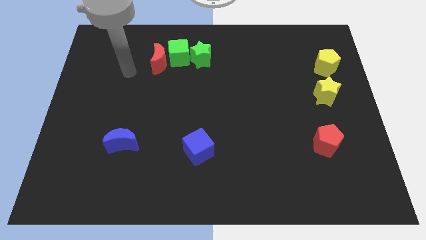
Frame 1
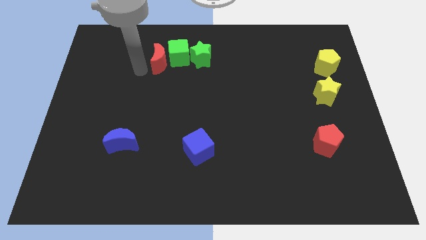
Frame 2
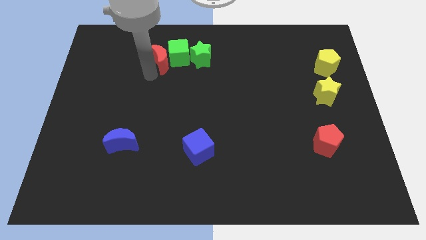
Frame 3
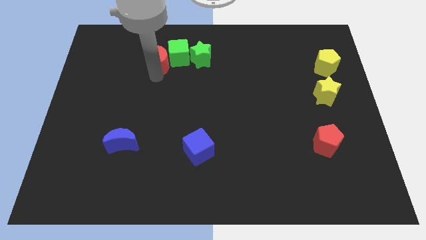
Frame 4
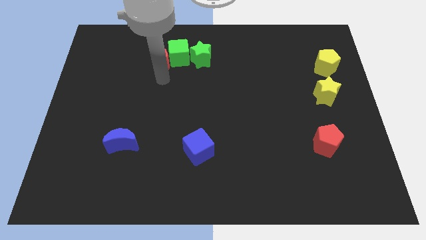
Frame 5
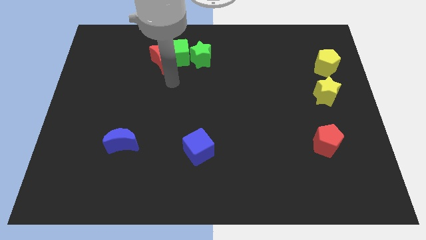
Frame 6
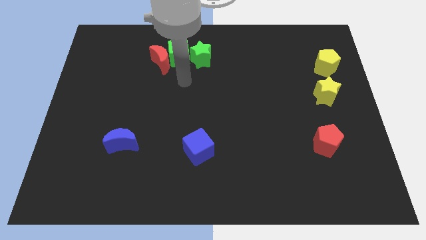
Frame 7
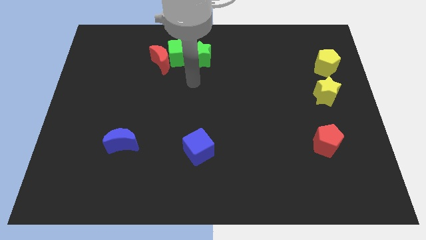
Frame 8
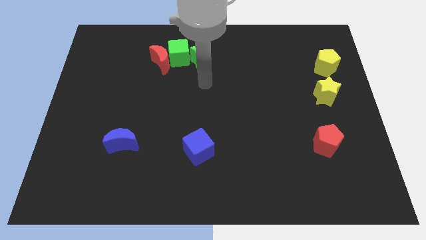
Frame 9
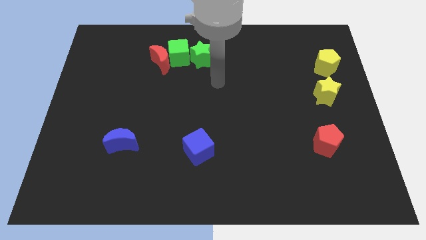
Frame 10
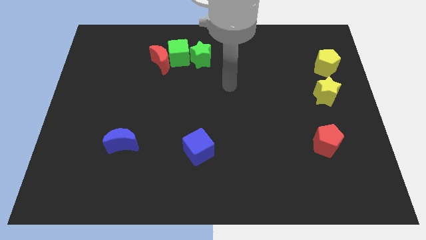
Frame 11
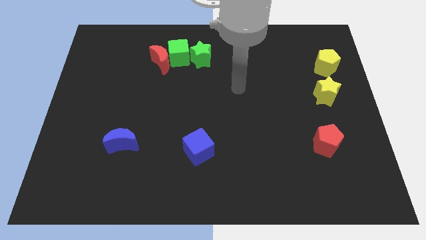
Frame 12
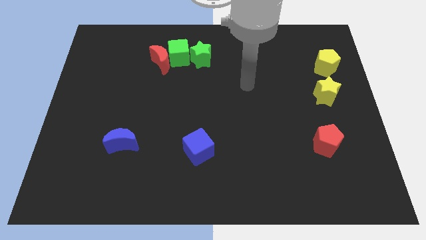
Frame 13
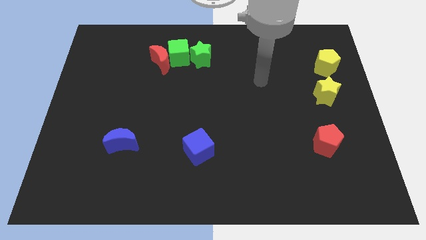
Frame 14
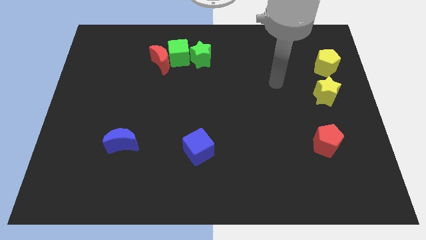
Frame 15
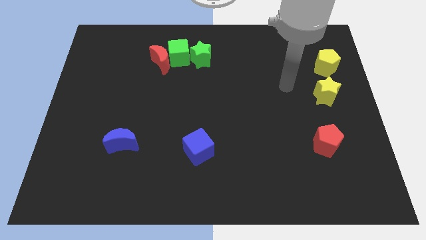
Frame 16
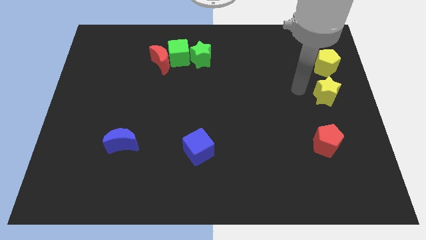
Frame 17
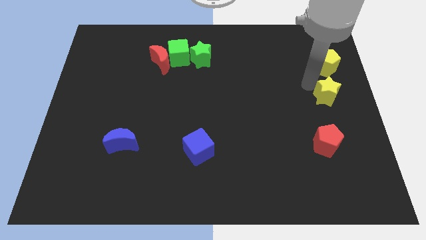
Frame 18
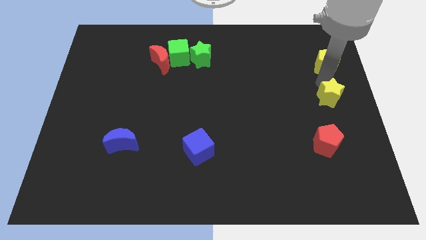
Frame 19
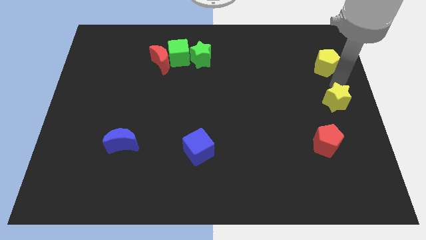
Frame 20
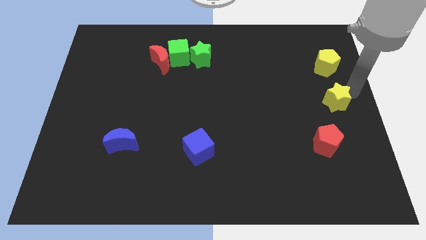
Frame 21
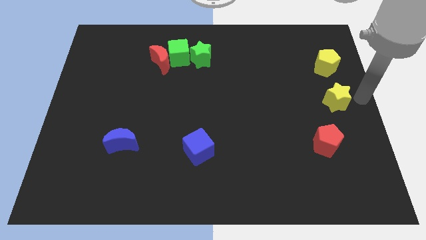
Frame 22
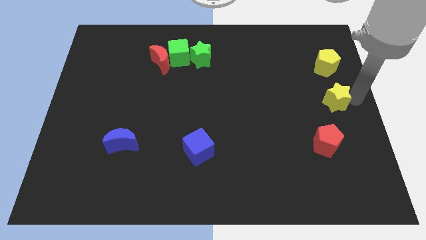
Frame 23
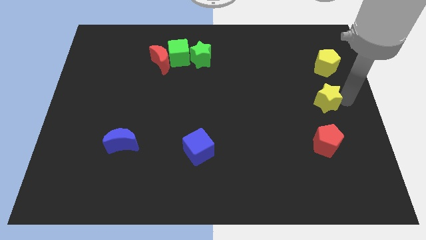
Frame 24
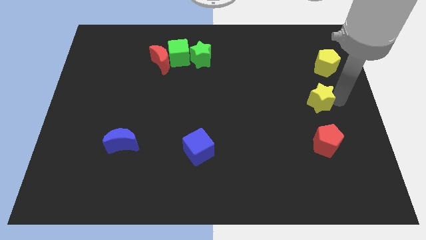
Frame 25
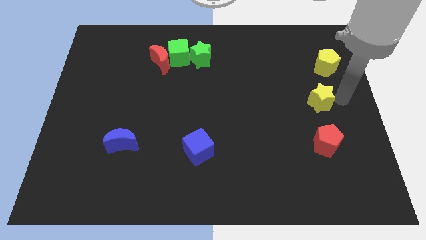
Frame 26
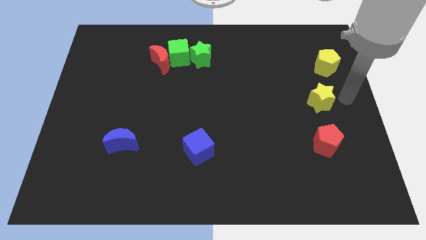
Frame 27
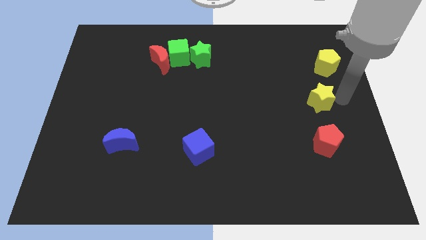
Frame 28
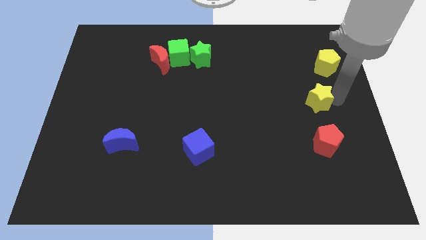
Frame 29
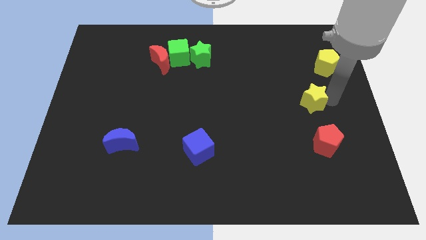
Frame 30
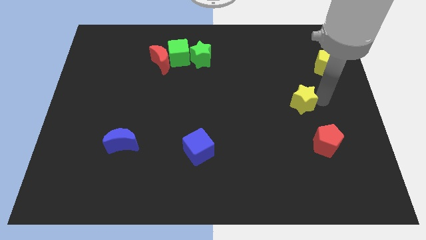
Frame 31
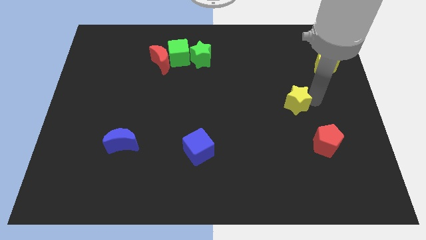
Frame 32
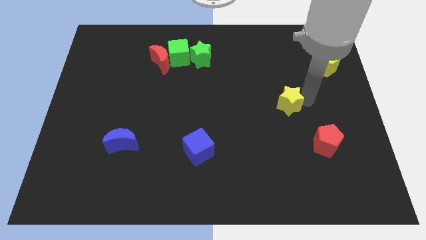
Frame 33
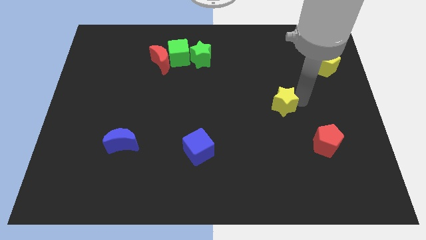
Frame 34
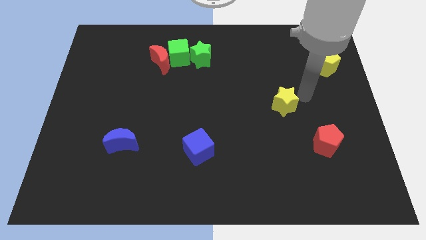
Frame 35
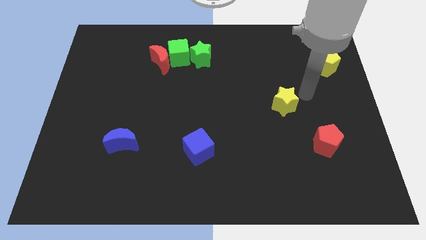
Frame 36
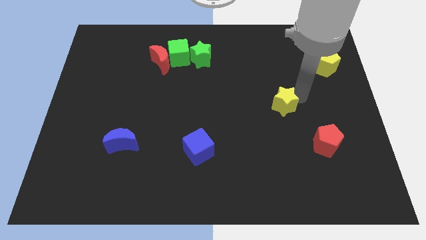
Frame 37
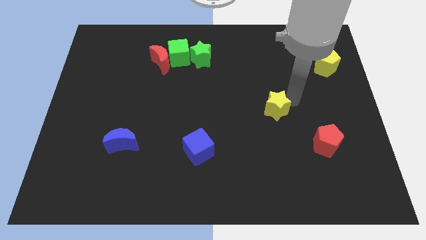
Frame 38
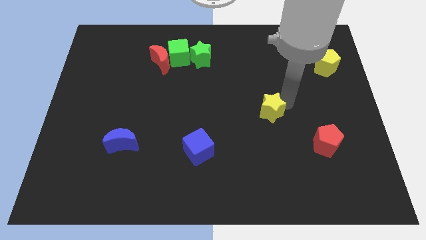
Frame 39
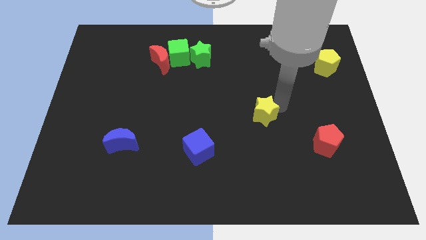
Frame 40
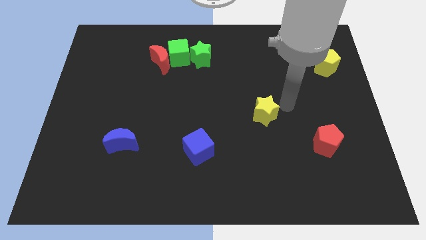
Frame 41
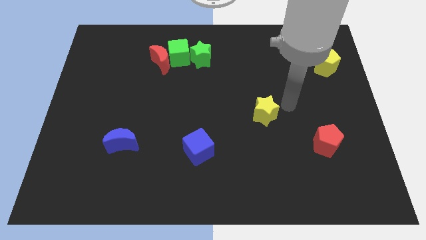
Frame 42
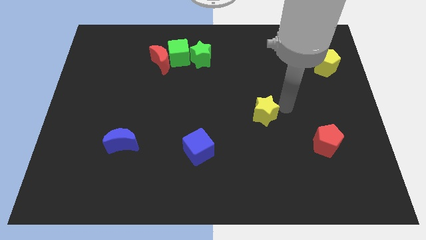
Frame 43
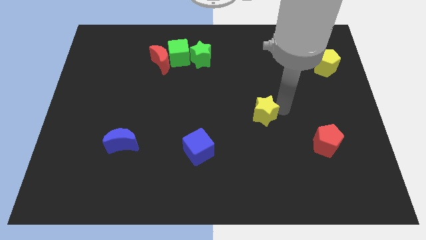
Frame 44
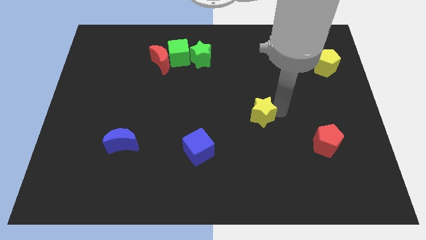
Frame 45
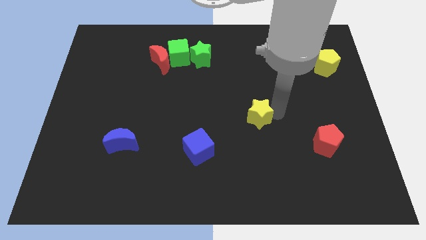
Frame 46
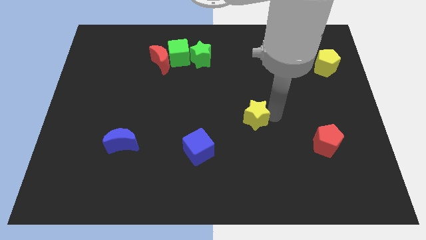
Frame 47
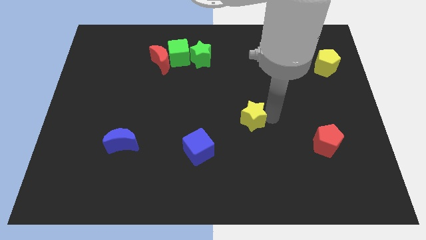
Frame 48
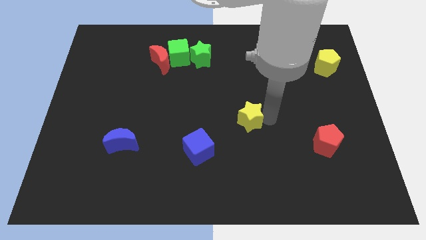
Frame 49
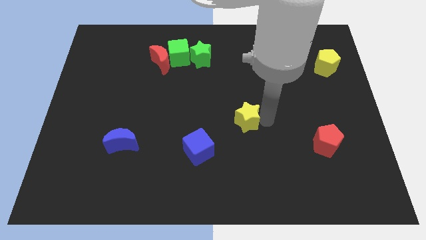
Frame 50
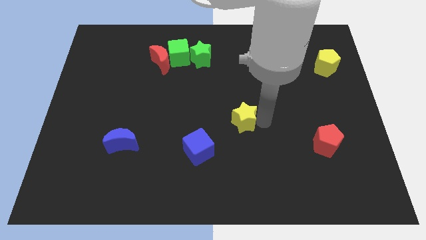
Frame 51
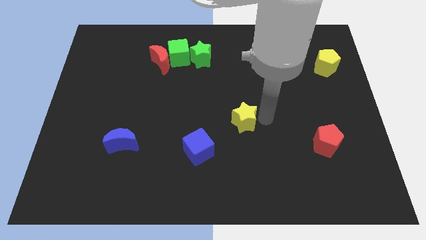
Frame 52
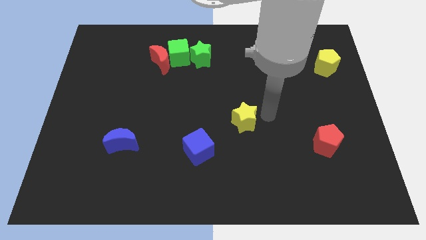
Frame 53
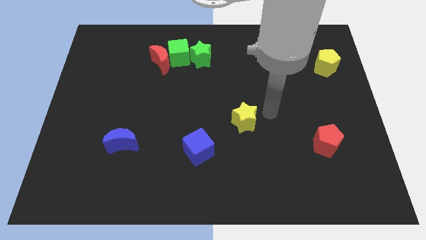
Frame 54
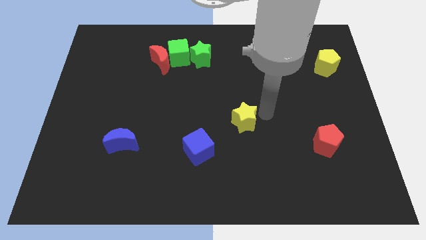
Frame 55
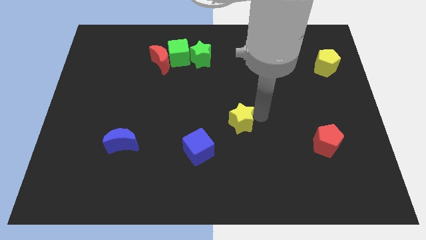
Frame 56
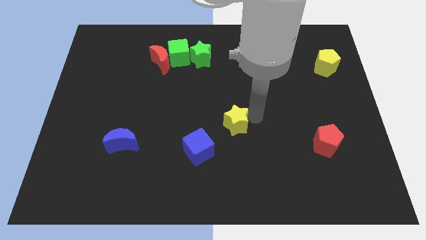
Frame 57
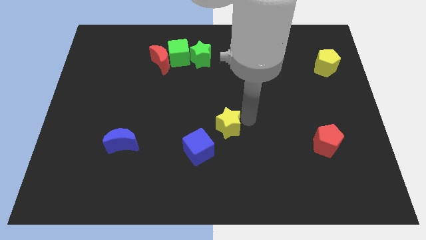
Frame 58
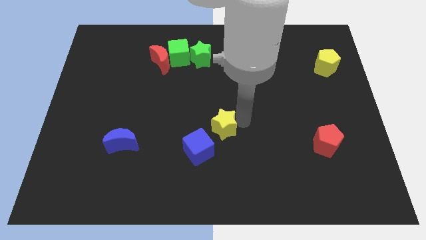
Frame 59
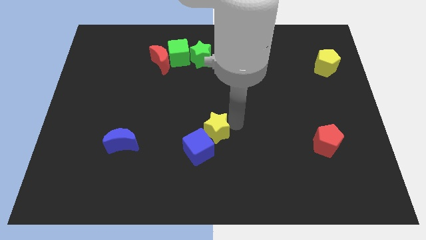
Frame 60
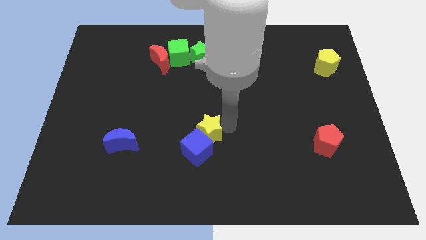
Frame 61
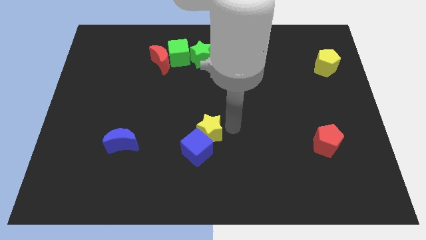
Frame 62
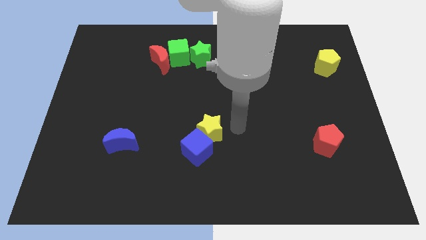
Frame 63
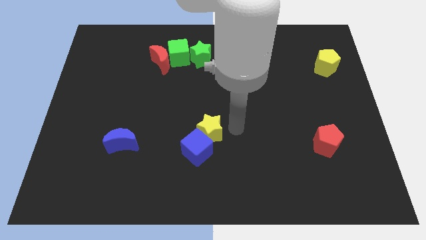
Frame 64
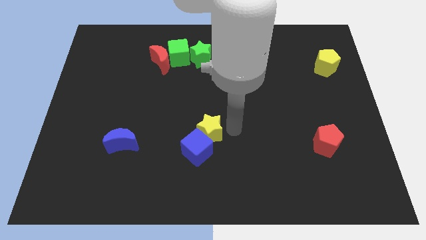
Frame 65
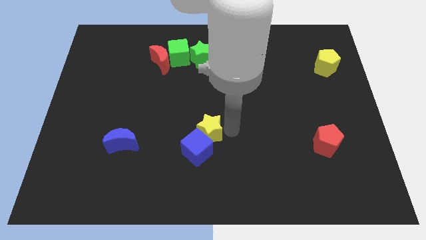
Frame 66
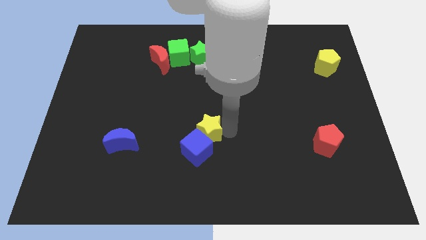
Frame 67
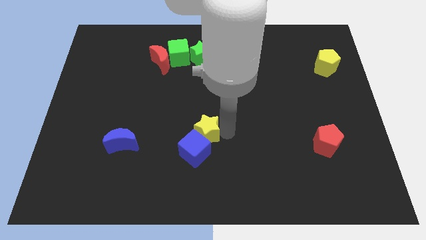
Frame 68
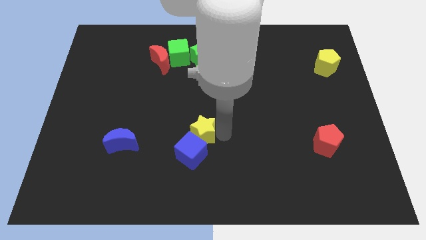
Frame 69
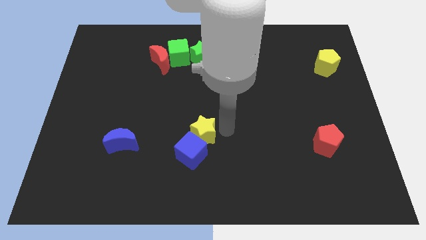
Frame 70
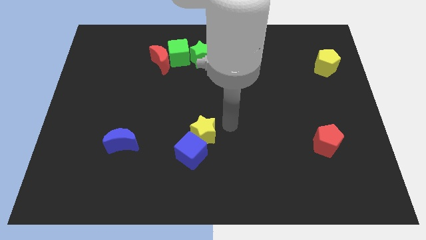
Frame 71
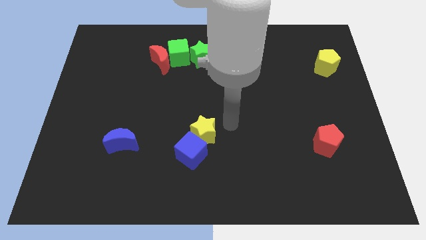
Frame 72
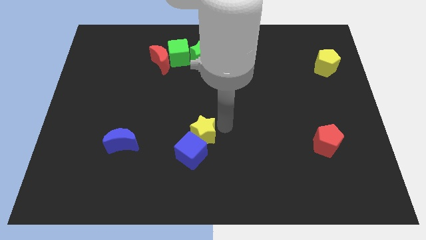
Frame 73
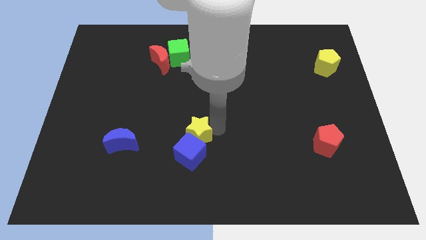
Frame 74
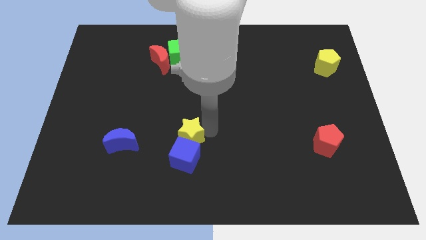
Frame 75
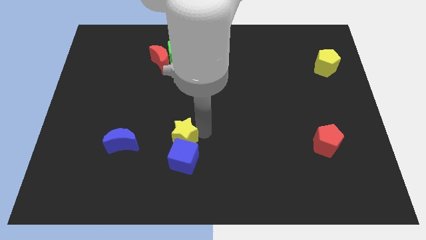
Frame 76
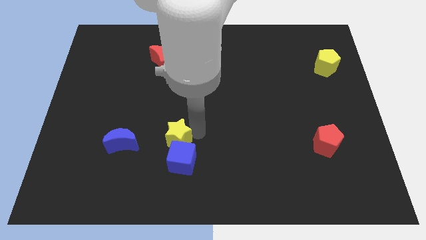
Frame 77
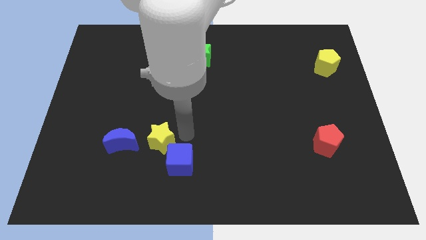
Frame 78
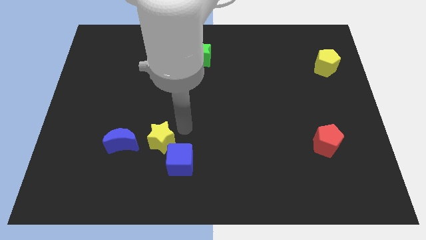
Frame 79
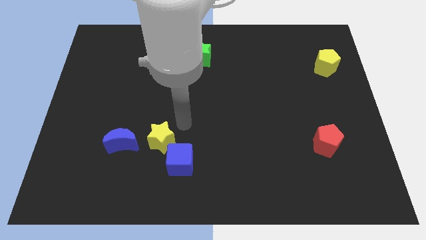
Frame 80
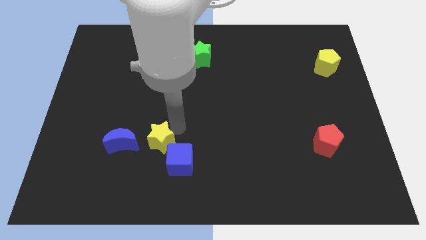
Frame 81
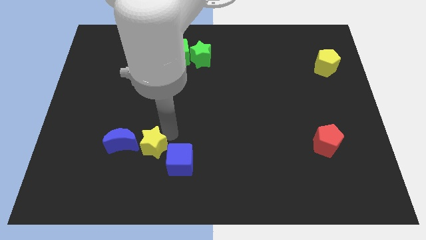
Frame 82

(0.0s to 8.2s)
push the yellow star left of the blue cube
